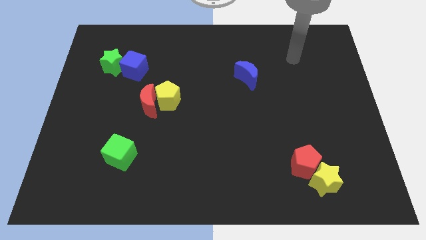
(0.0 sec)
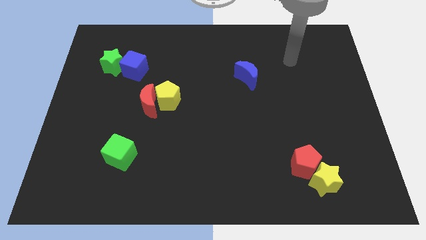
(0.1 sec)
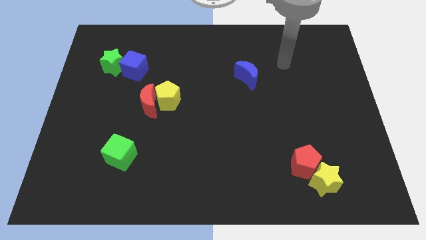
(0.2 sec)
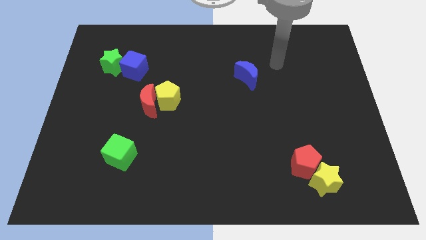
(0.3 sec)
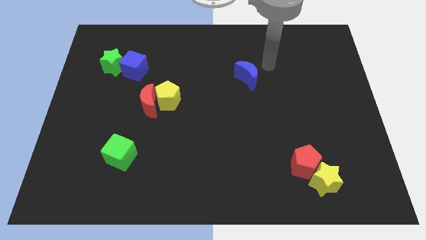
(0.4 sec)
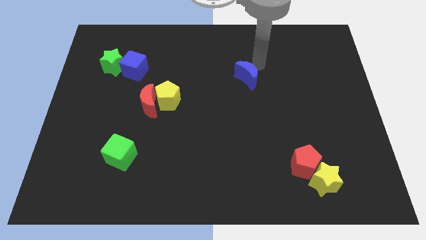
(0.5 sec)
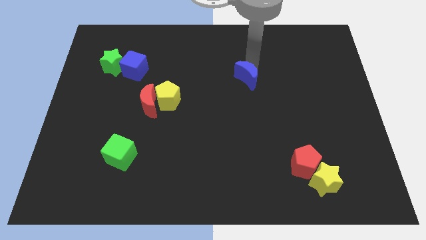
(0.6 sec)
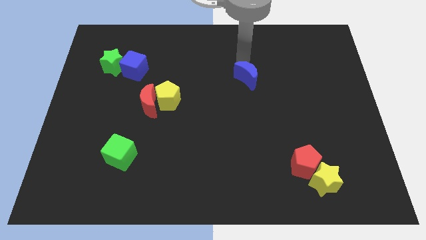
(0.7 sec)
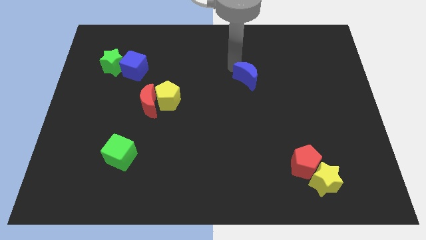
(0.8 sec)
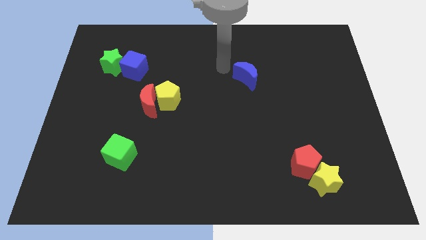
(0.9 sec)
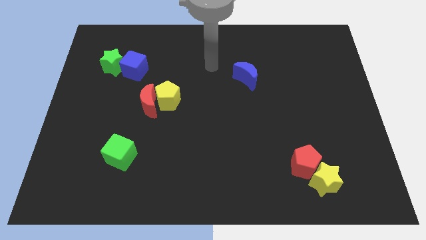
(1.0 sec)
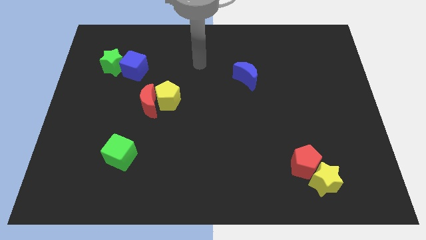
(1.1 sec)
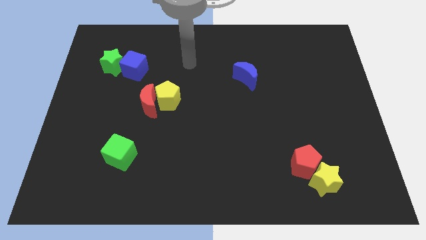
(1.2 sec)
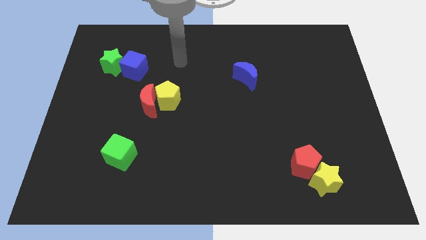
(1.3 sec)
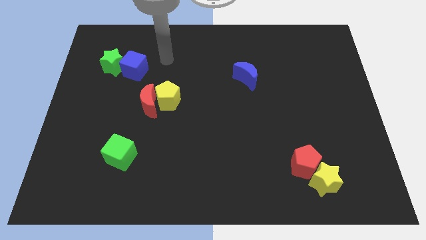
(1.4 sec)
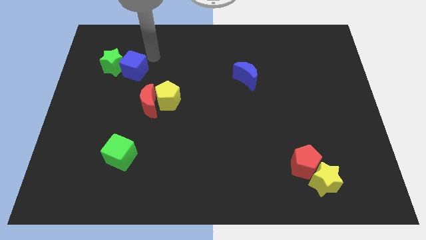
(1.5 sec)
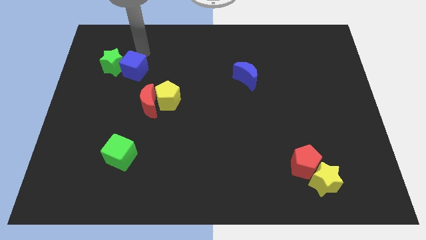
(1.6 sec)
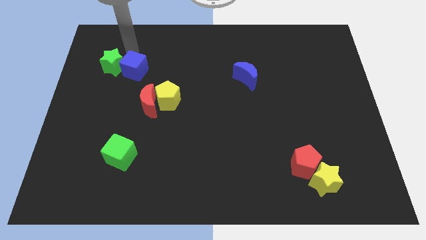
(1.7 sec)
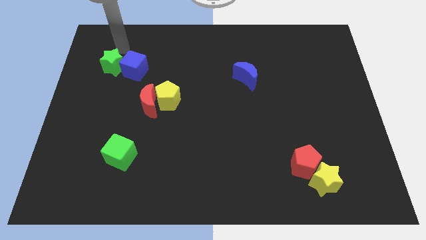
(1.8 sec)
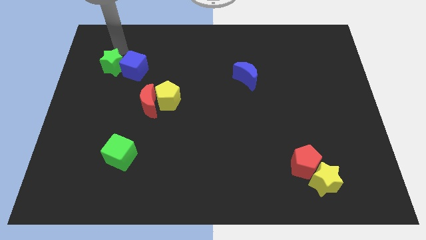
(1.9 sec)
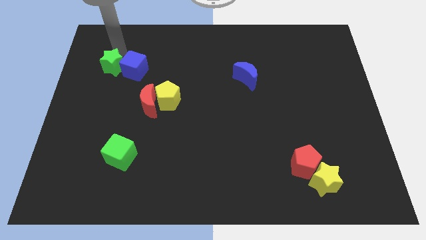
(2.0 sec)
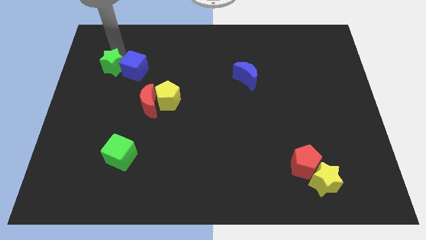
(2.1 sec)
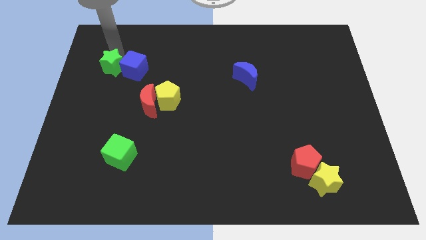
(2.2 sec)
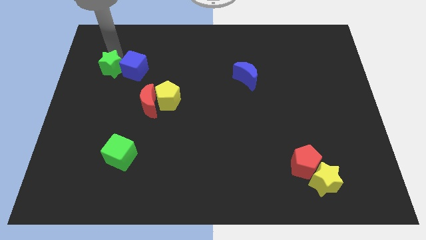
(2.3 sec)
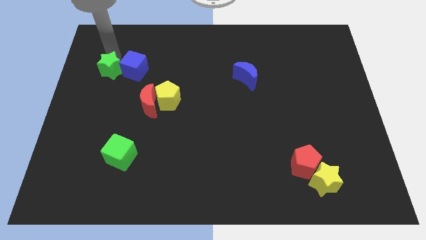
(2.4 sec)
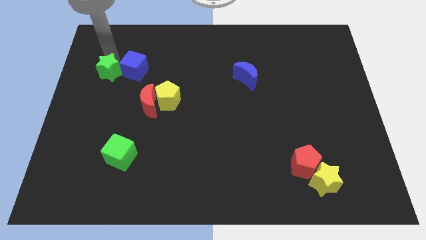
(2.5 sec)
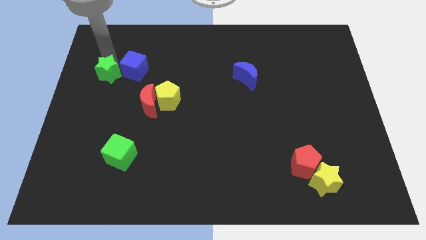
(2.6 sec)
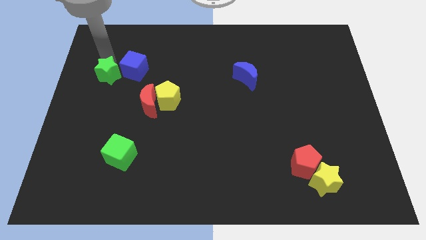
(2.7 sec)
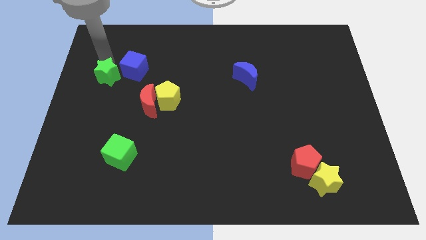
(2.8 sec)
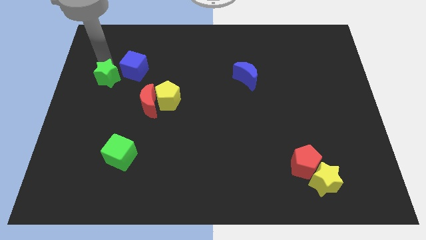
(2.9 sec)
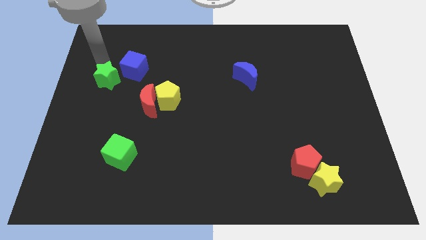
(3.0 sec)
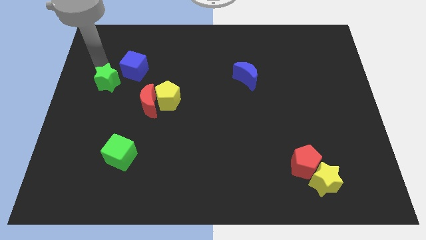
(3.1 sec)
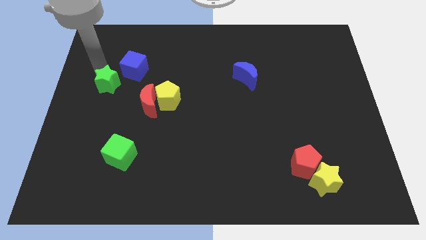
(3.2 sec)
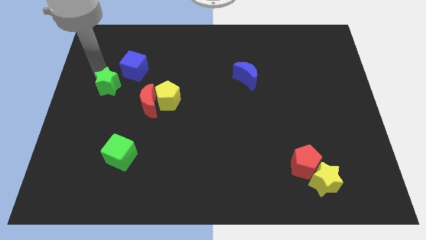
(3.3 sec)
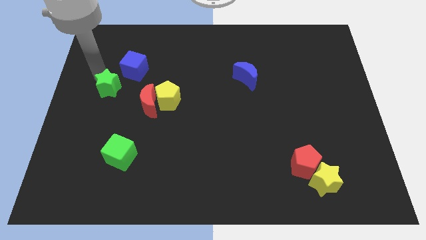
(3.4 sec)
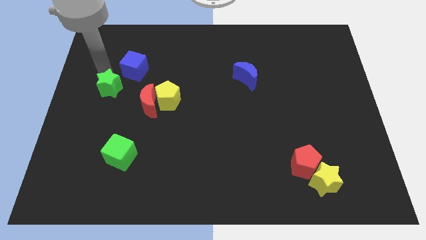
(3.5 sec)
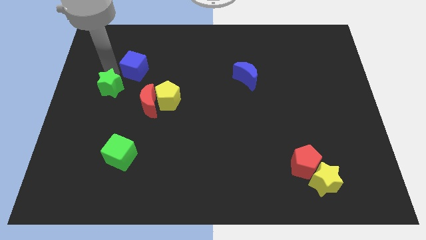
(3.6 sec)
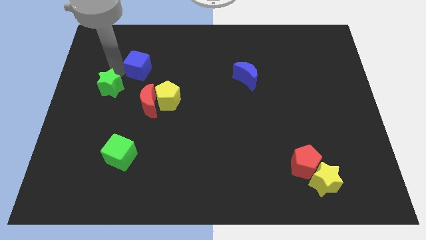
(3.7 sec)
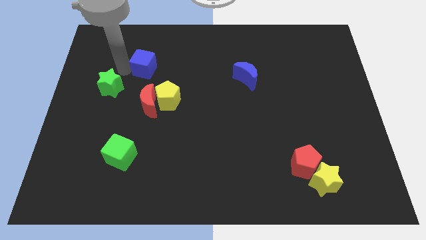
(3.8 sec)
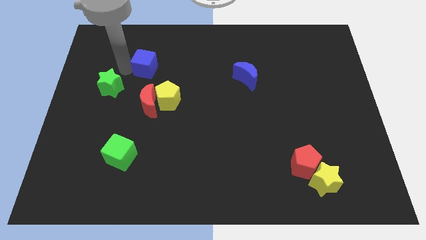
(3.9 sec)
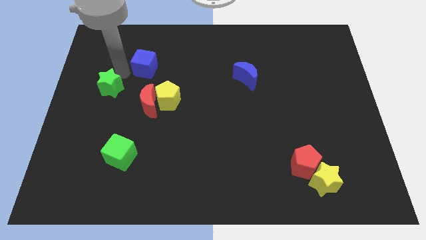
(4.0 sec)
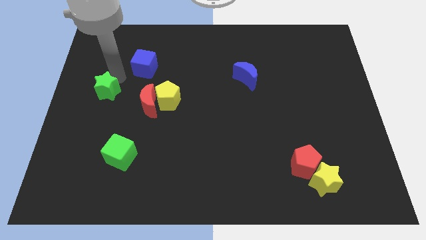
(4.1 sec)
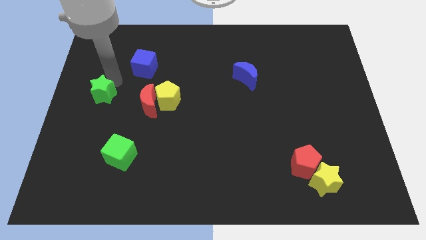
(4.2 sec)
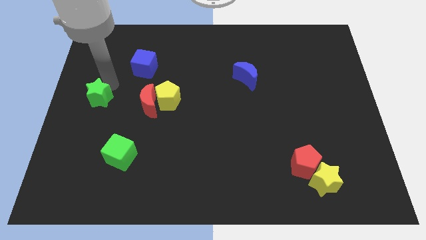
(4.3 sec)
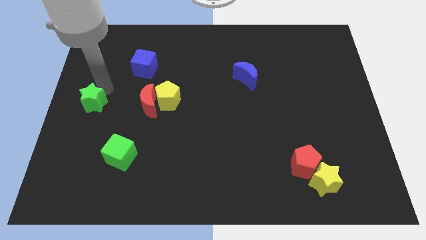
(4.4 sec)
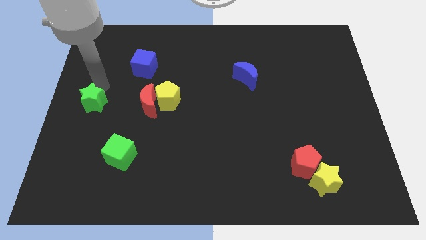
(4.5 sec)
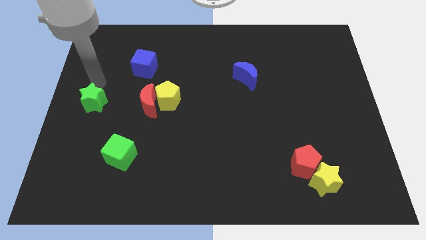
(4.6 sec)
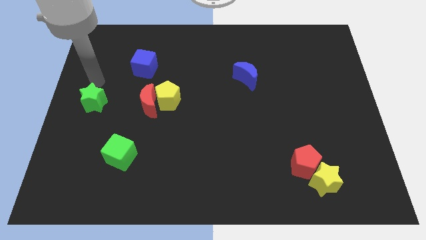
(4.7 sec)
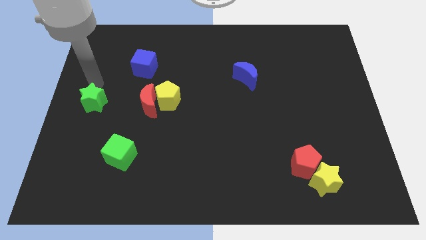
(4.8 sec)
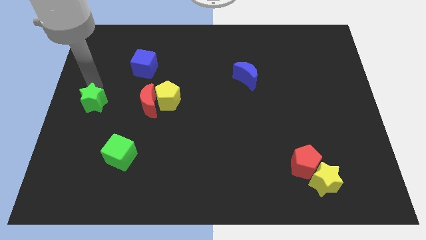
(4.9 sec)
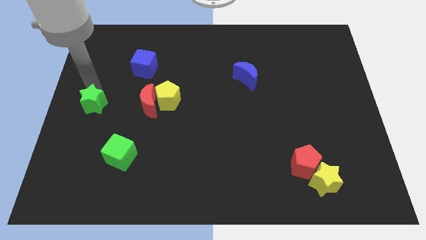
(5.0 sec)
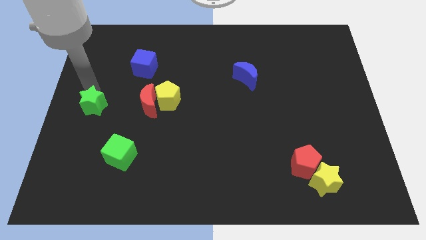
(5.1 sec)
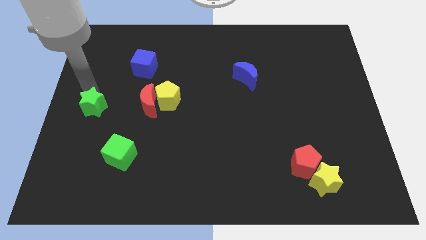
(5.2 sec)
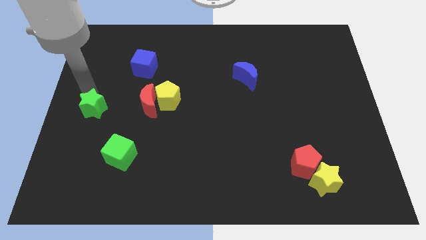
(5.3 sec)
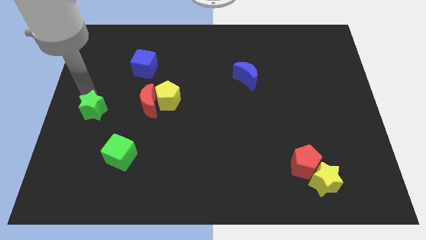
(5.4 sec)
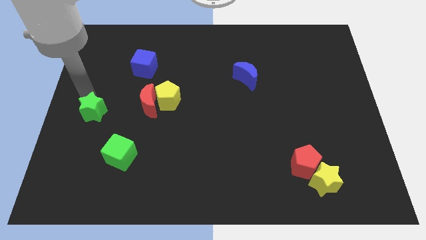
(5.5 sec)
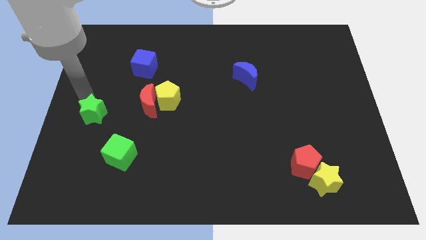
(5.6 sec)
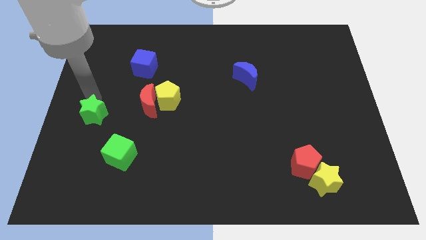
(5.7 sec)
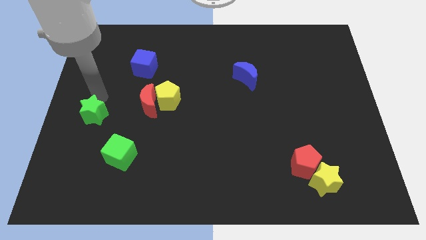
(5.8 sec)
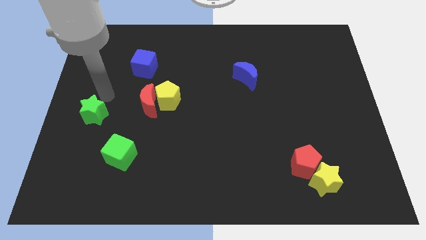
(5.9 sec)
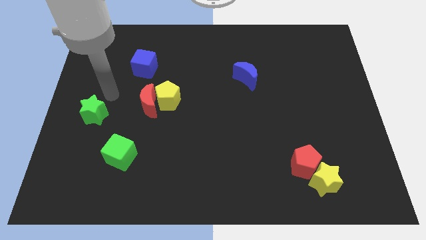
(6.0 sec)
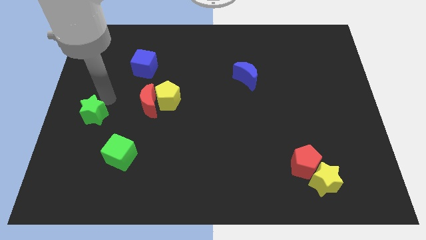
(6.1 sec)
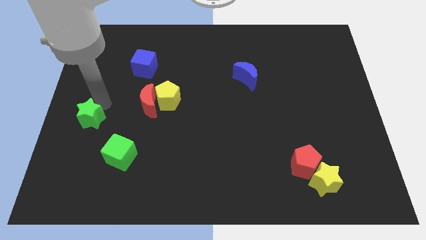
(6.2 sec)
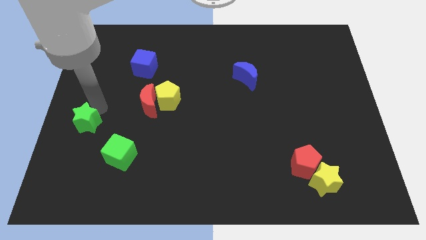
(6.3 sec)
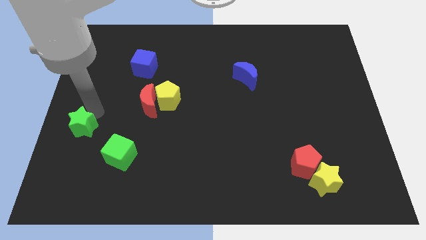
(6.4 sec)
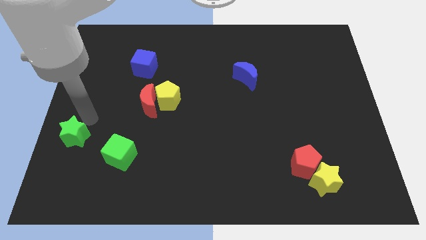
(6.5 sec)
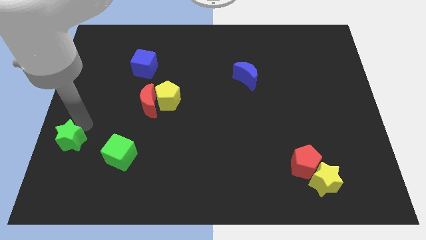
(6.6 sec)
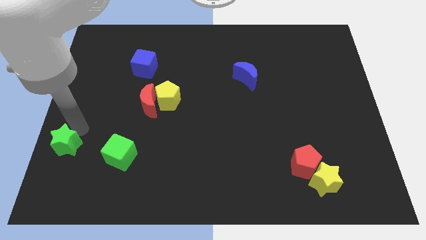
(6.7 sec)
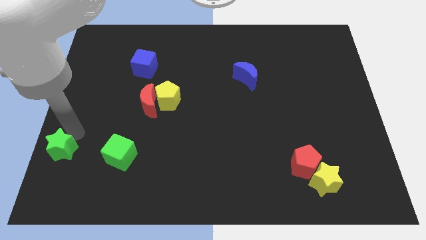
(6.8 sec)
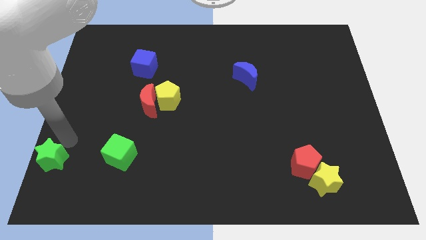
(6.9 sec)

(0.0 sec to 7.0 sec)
put the green star to the bottom left of the board
